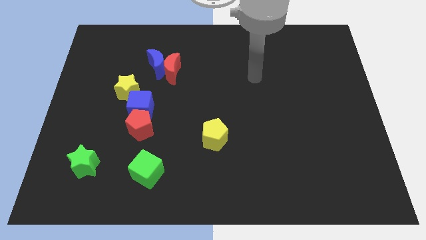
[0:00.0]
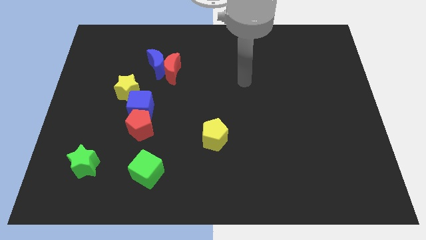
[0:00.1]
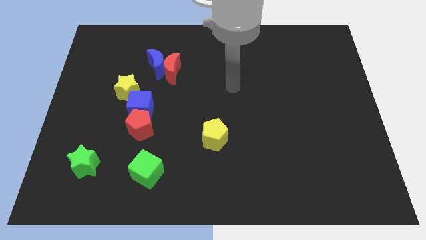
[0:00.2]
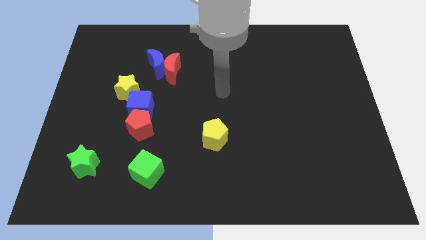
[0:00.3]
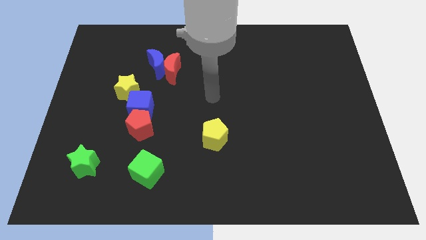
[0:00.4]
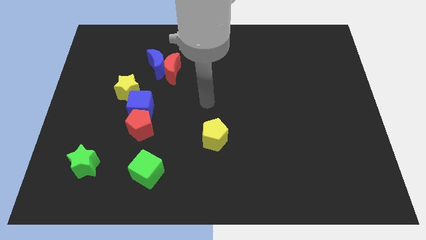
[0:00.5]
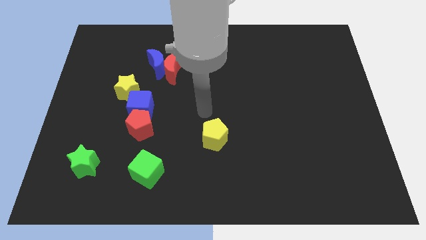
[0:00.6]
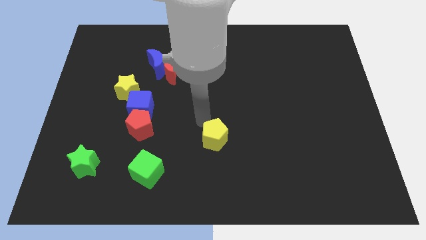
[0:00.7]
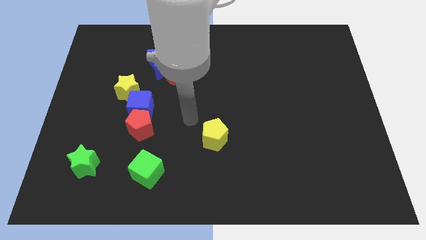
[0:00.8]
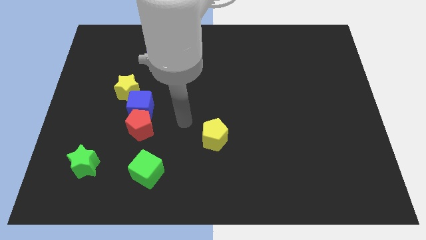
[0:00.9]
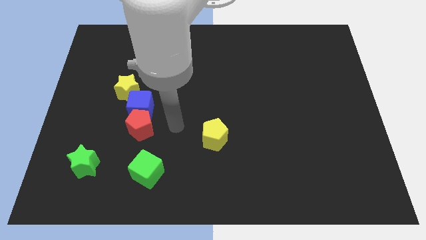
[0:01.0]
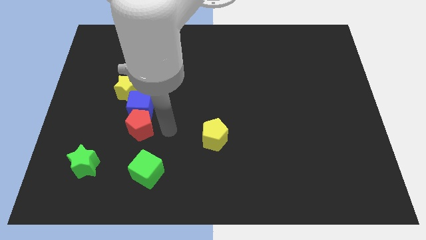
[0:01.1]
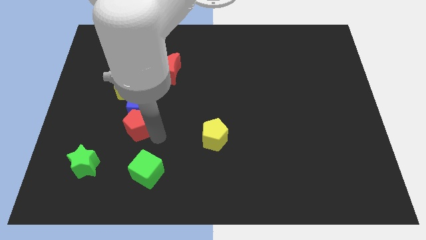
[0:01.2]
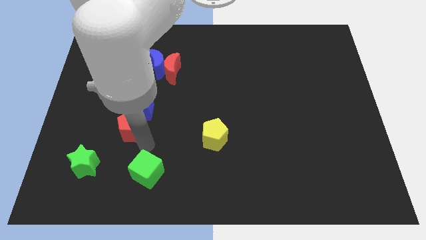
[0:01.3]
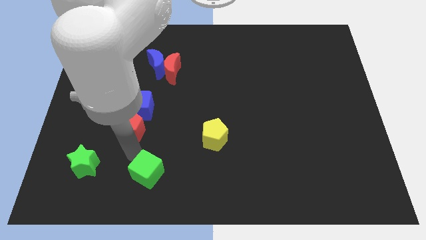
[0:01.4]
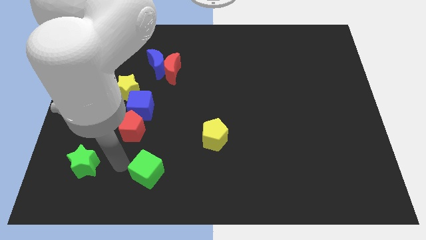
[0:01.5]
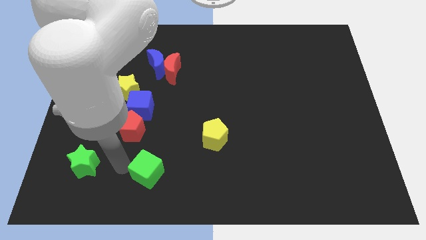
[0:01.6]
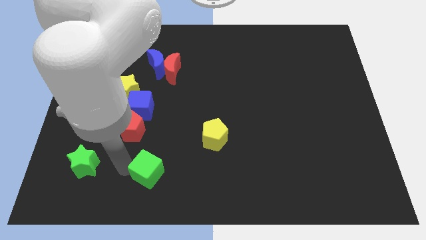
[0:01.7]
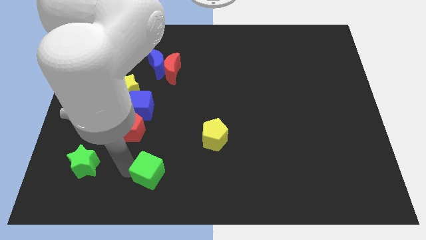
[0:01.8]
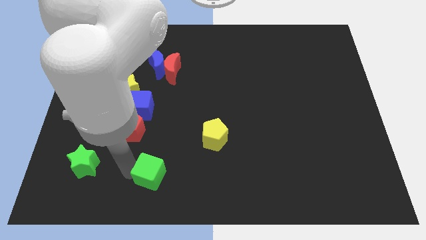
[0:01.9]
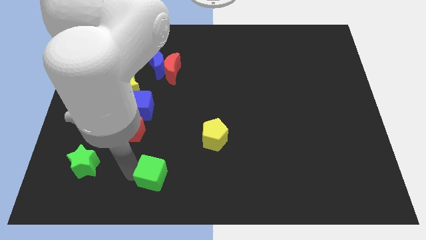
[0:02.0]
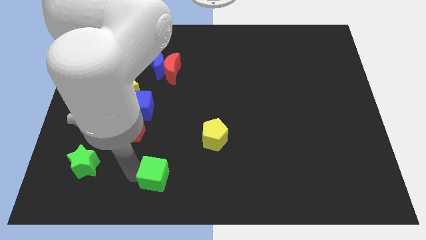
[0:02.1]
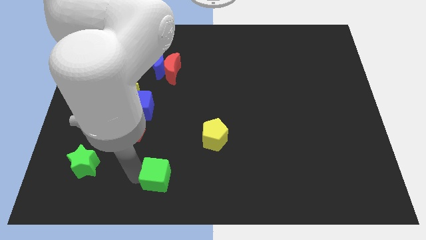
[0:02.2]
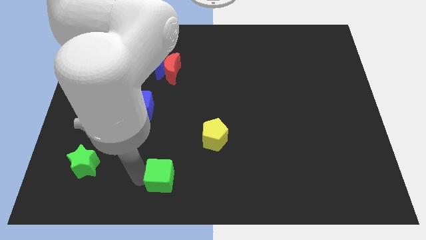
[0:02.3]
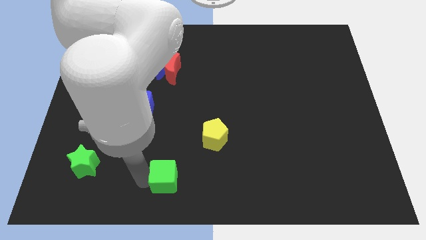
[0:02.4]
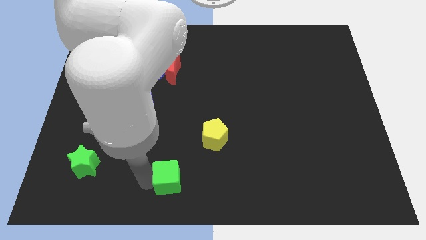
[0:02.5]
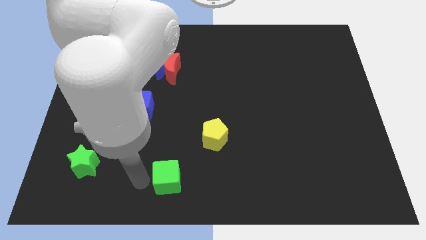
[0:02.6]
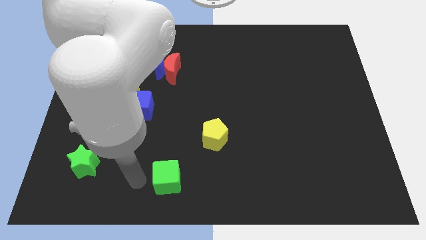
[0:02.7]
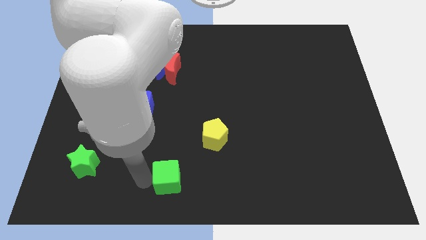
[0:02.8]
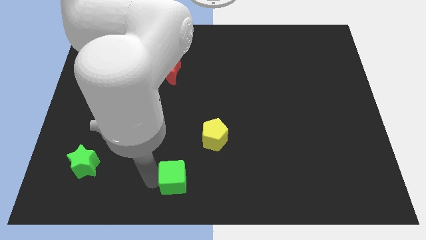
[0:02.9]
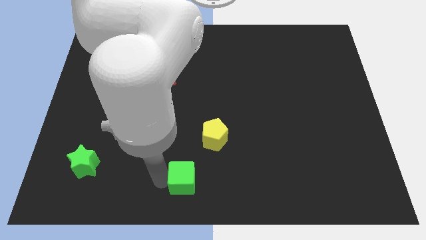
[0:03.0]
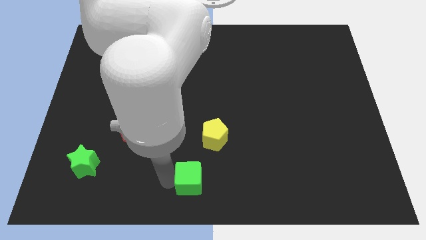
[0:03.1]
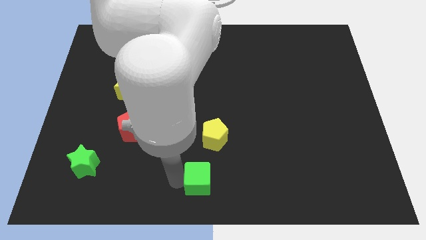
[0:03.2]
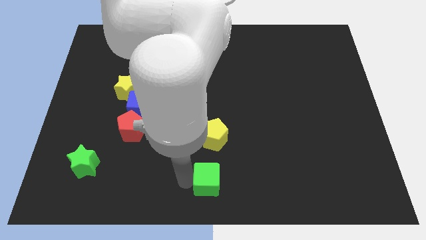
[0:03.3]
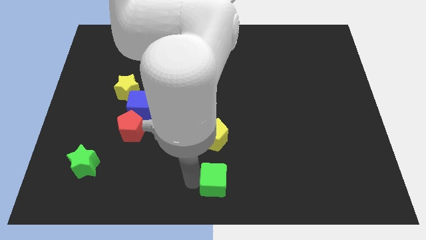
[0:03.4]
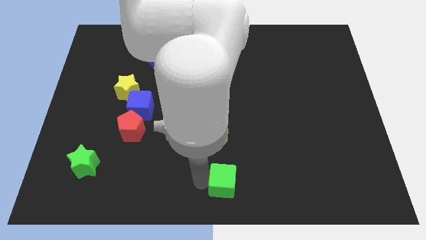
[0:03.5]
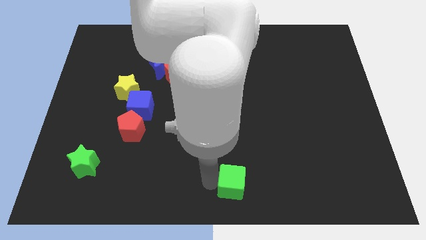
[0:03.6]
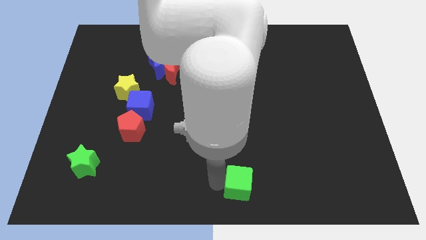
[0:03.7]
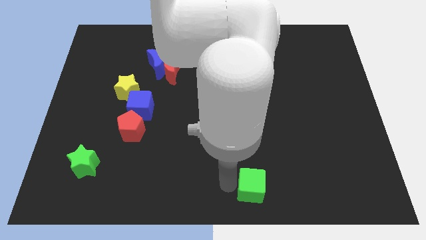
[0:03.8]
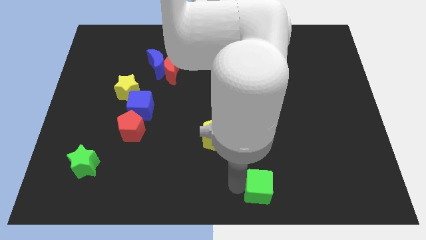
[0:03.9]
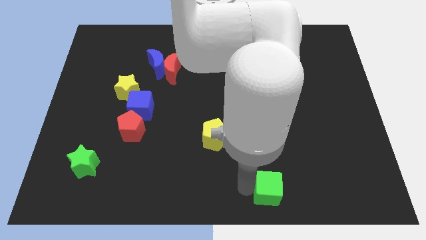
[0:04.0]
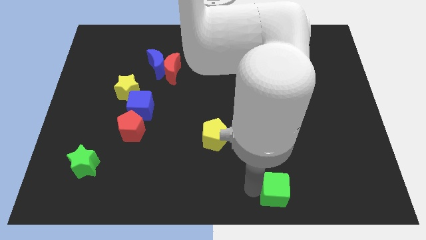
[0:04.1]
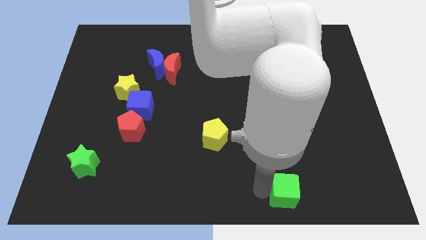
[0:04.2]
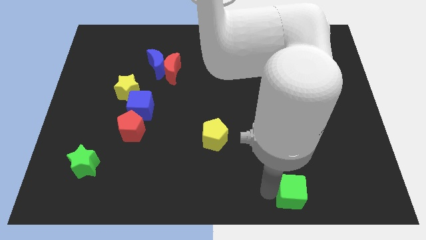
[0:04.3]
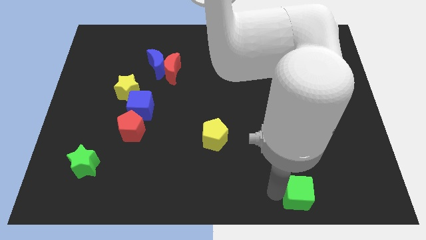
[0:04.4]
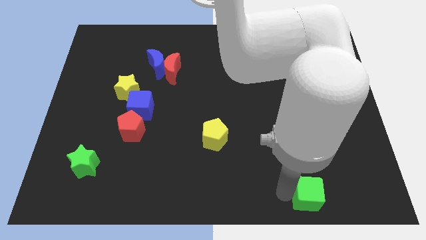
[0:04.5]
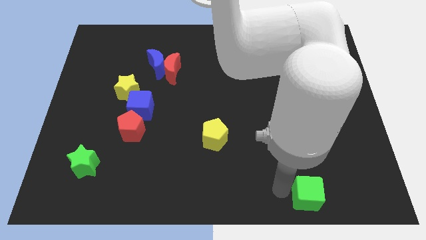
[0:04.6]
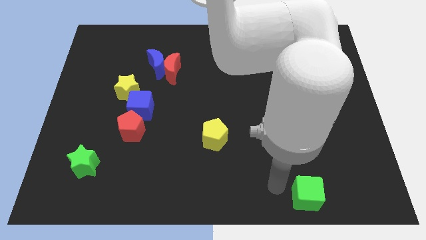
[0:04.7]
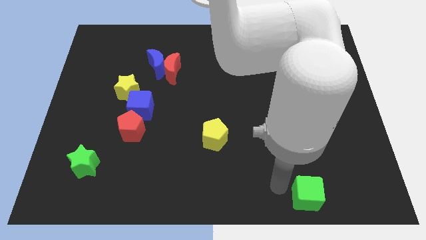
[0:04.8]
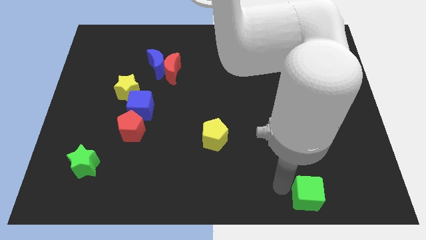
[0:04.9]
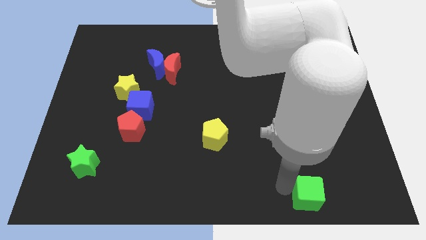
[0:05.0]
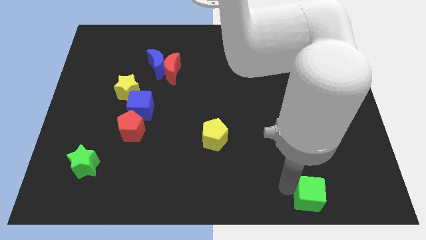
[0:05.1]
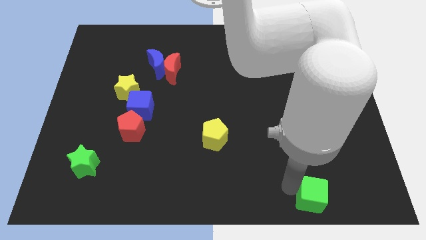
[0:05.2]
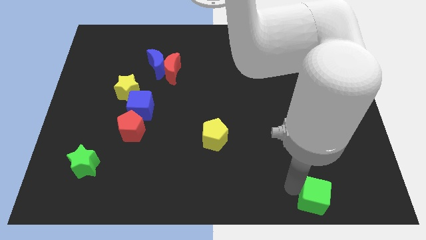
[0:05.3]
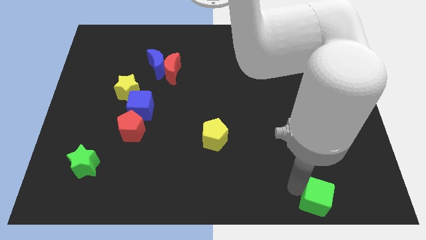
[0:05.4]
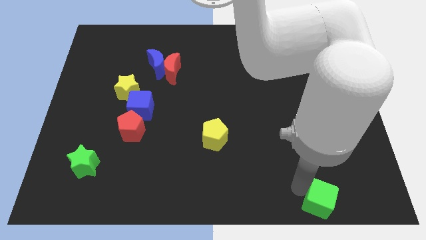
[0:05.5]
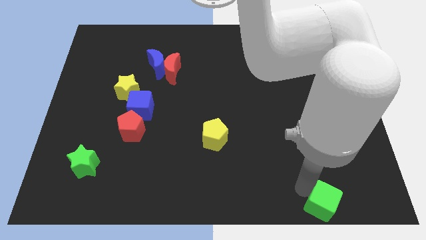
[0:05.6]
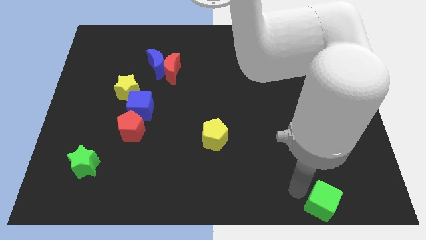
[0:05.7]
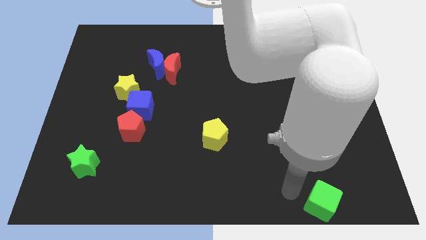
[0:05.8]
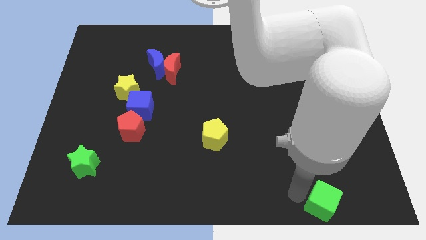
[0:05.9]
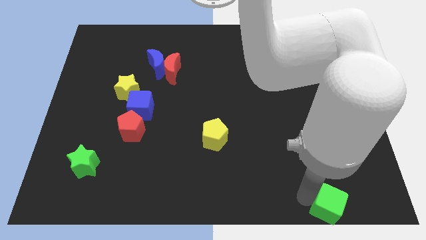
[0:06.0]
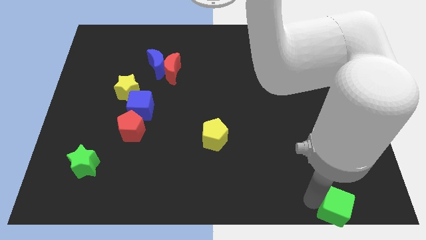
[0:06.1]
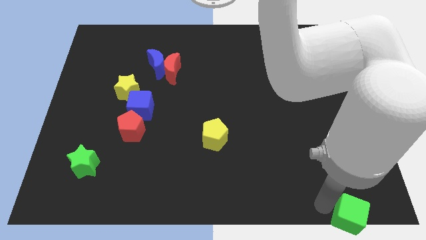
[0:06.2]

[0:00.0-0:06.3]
slide the green cube to the bottom right of the board
